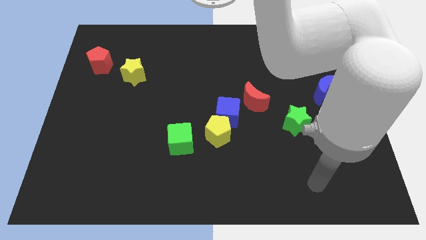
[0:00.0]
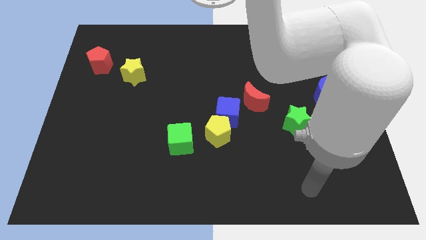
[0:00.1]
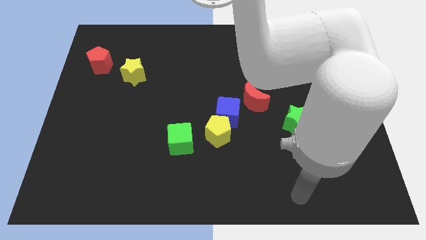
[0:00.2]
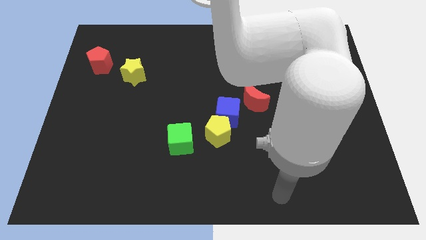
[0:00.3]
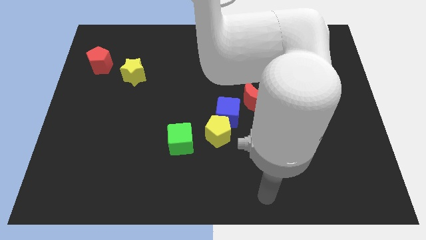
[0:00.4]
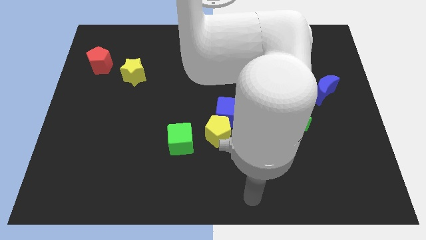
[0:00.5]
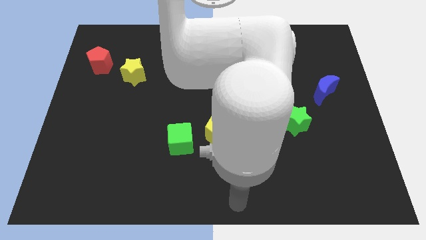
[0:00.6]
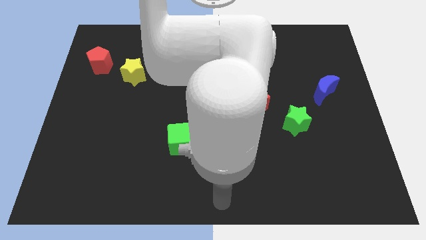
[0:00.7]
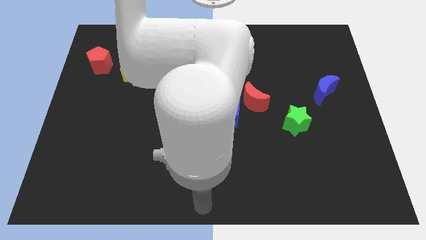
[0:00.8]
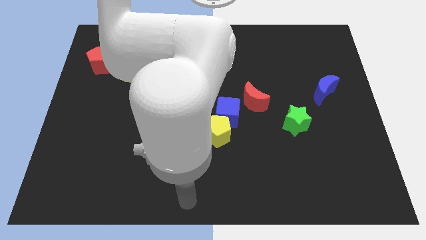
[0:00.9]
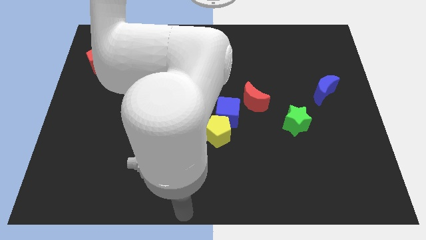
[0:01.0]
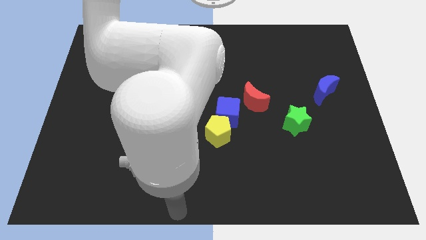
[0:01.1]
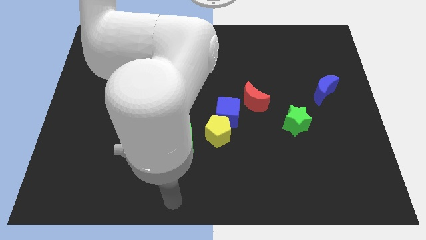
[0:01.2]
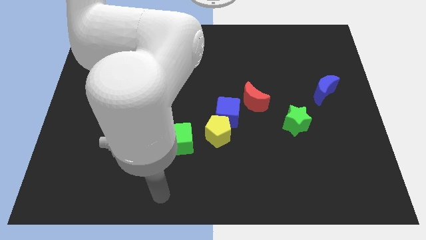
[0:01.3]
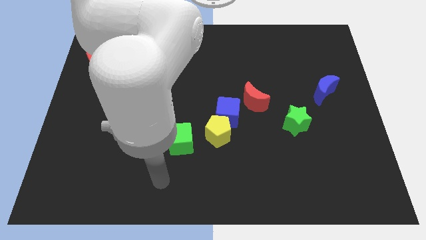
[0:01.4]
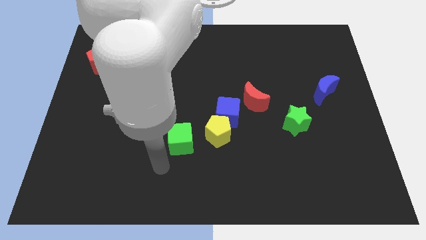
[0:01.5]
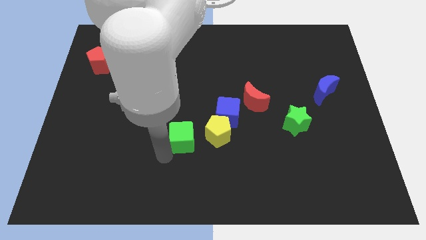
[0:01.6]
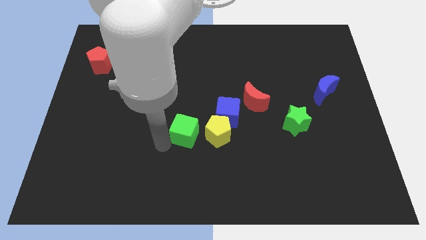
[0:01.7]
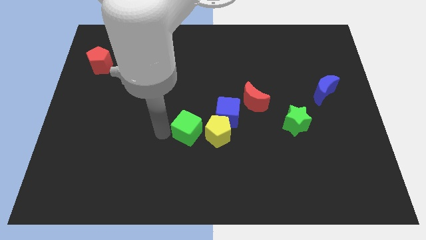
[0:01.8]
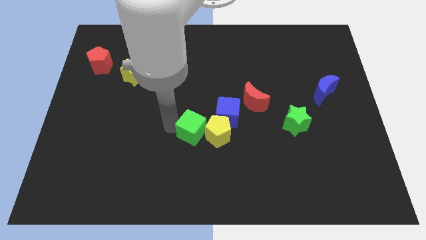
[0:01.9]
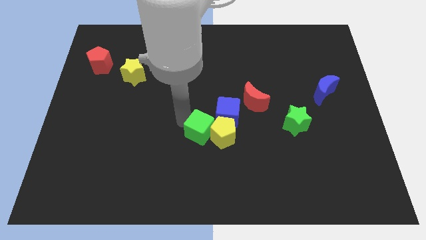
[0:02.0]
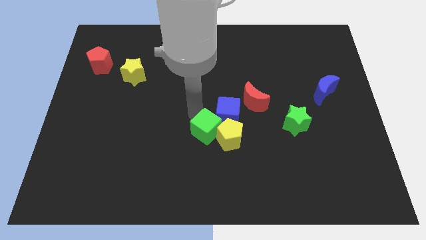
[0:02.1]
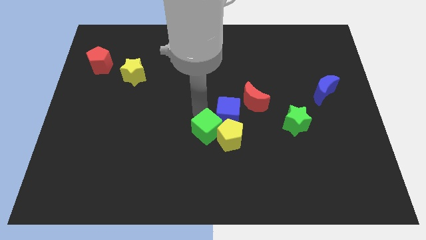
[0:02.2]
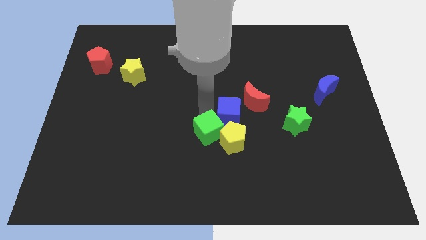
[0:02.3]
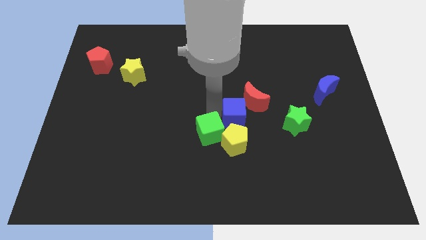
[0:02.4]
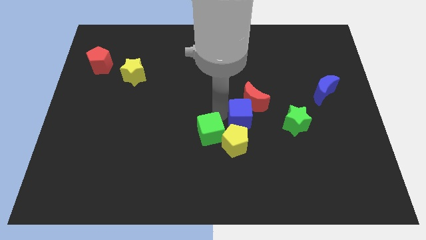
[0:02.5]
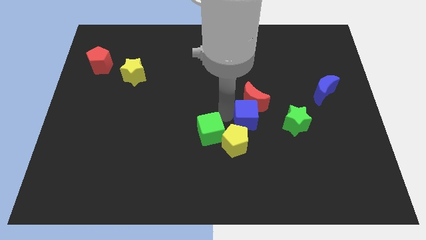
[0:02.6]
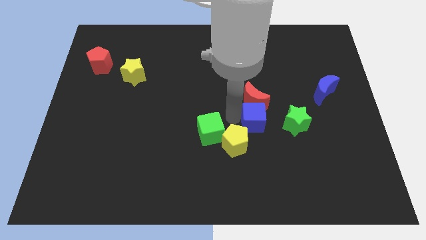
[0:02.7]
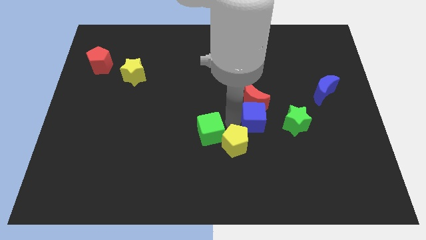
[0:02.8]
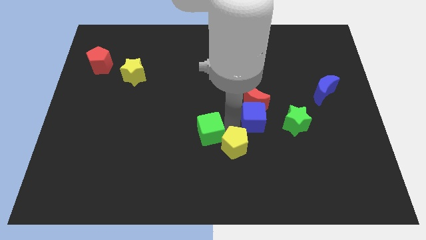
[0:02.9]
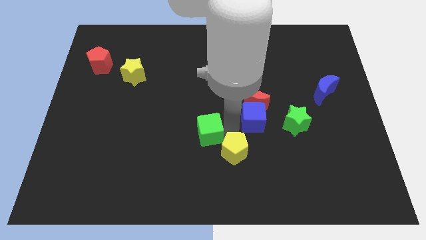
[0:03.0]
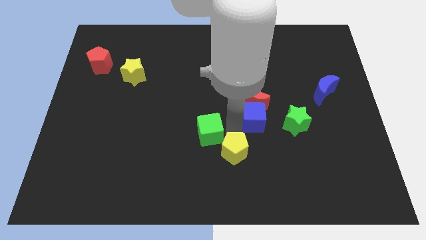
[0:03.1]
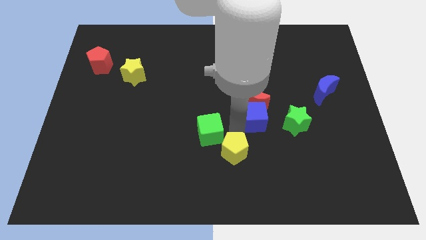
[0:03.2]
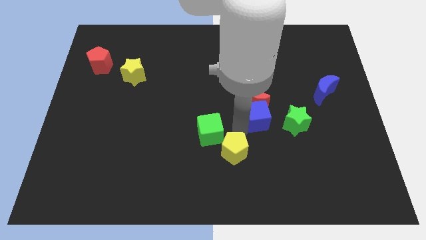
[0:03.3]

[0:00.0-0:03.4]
slide the blue cube a little right

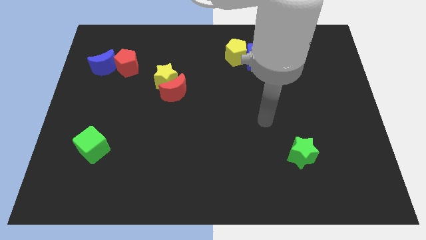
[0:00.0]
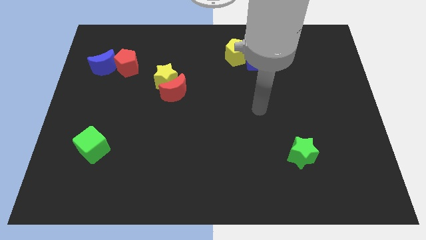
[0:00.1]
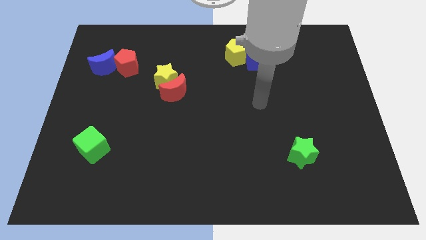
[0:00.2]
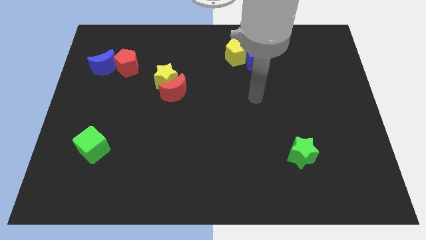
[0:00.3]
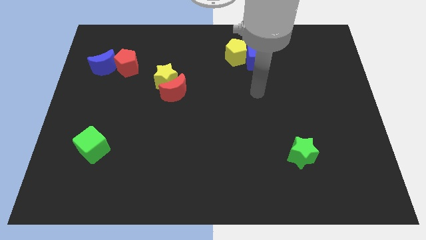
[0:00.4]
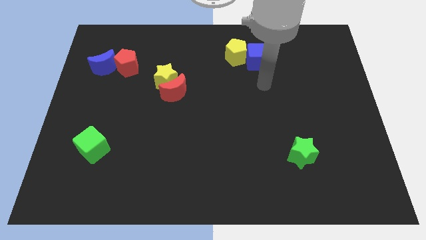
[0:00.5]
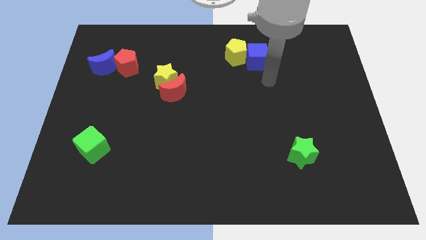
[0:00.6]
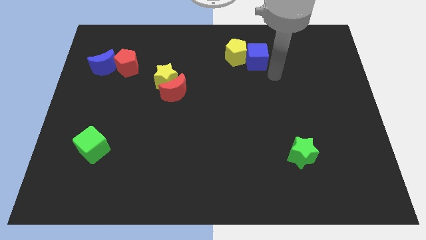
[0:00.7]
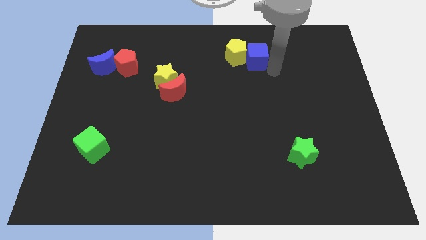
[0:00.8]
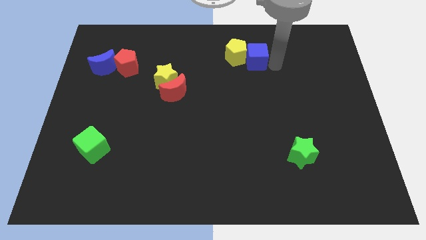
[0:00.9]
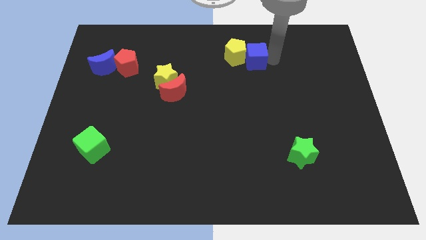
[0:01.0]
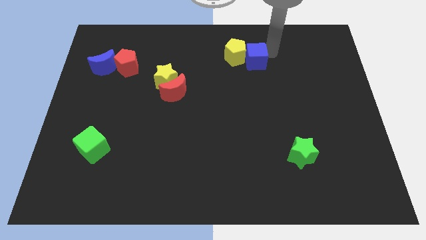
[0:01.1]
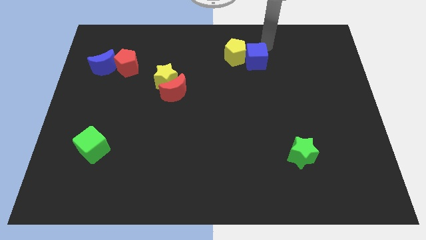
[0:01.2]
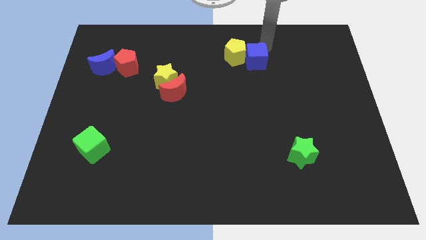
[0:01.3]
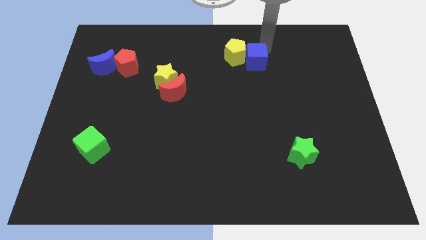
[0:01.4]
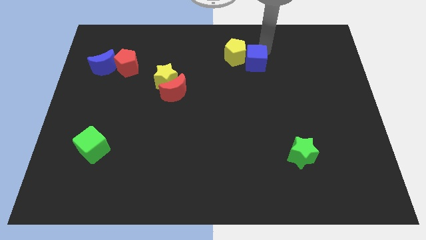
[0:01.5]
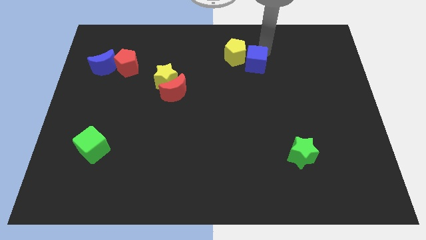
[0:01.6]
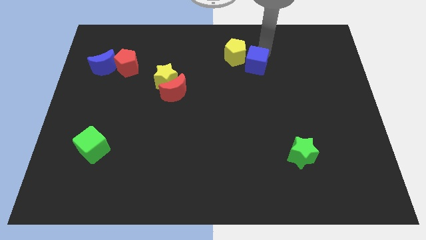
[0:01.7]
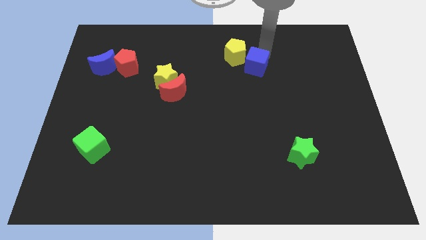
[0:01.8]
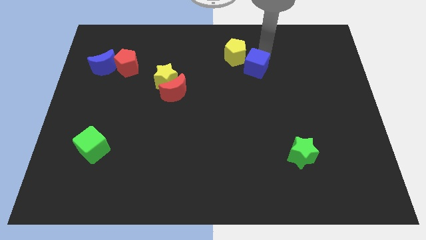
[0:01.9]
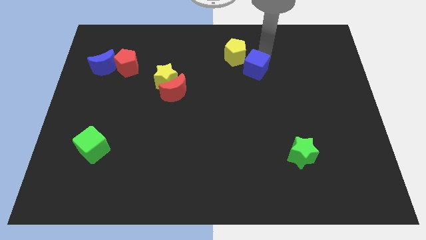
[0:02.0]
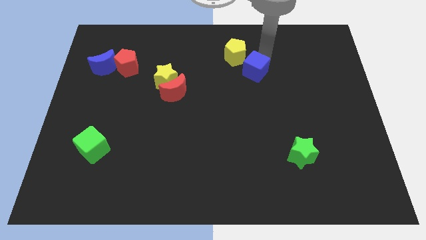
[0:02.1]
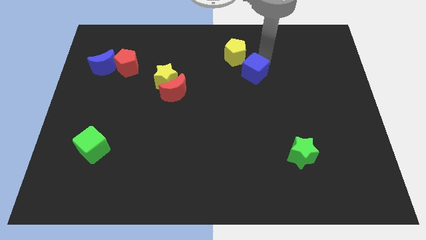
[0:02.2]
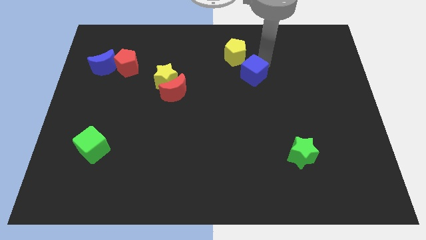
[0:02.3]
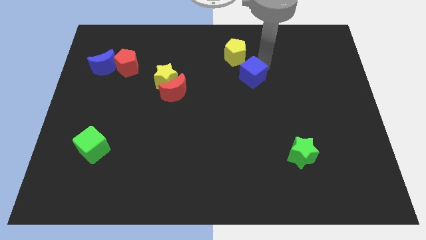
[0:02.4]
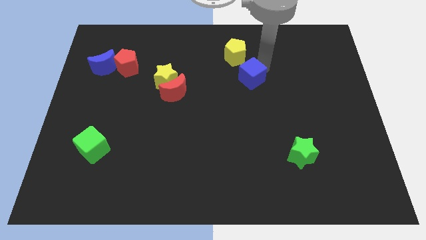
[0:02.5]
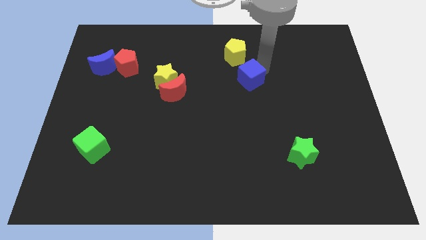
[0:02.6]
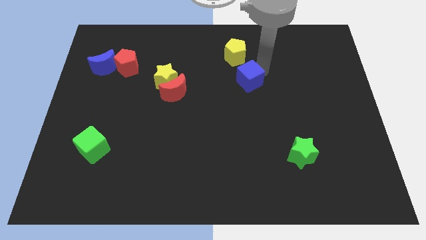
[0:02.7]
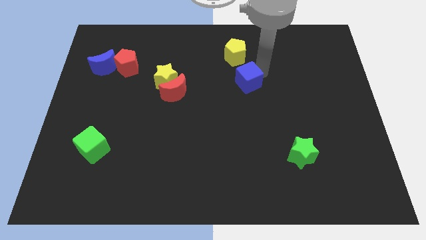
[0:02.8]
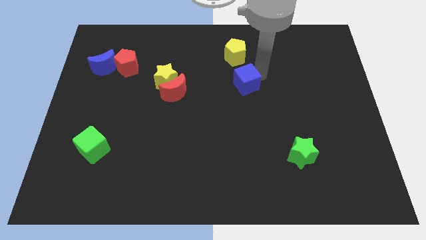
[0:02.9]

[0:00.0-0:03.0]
slide the blue cube somewhat downwards and then to the left

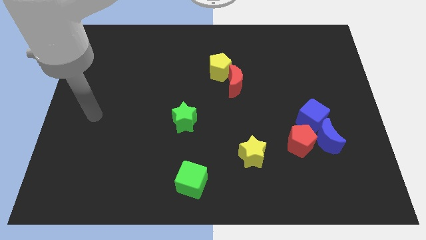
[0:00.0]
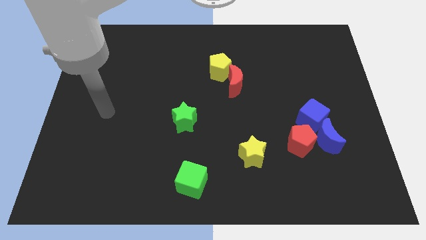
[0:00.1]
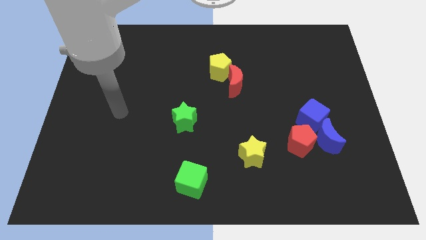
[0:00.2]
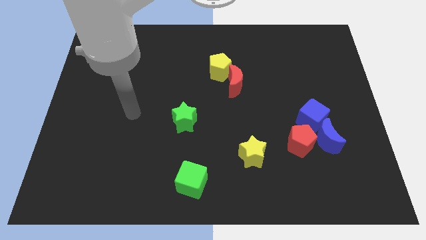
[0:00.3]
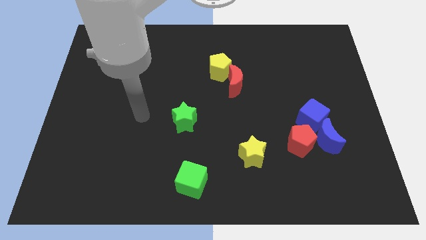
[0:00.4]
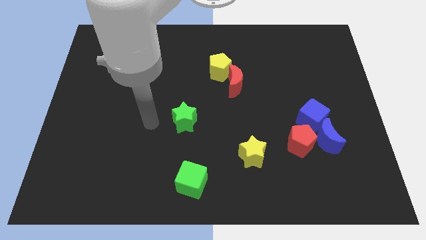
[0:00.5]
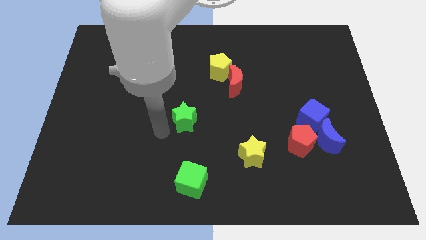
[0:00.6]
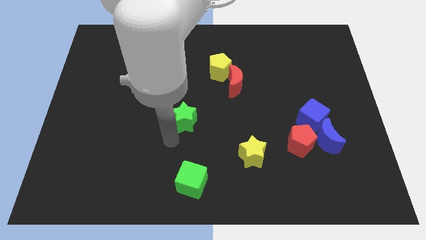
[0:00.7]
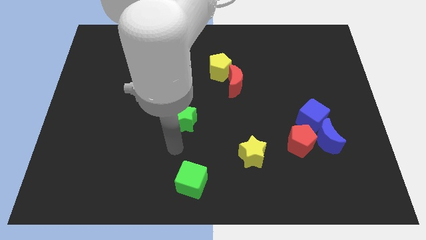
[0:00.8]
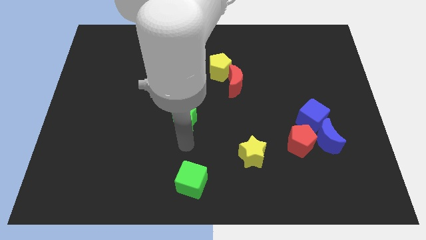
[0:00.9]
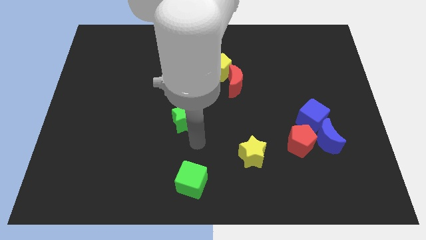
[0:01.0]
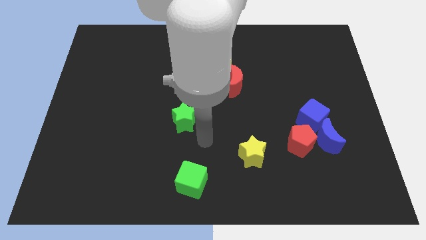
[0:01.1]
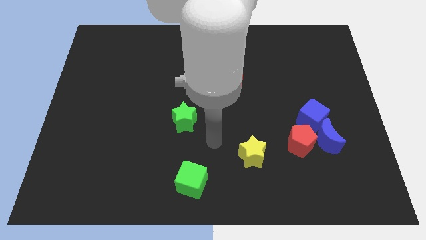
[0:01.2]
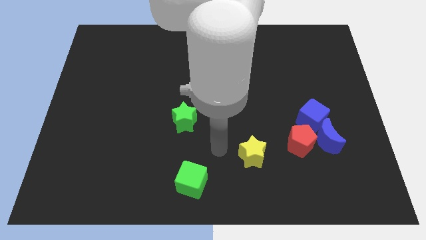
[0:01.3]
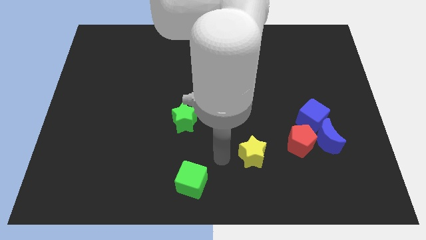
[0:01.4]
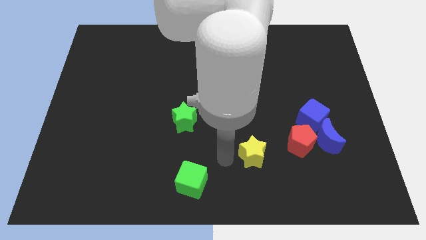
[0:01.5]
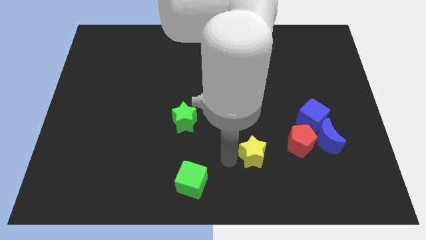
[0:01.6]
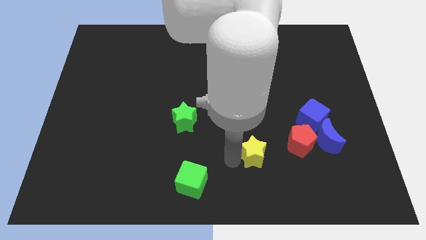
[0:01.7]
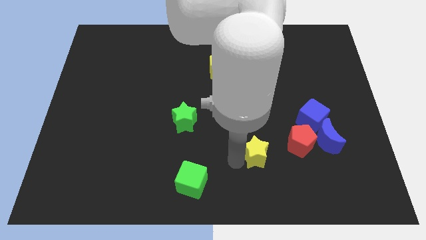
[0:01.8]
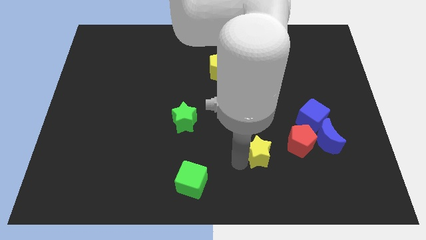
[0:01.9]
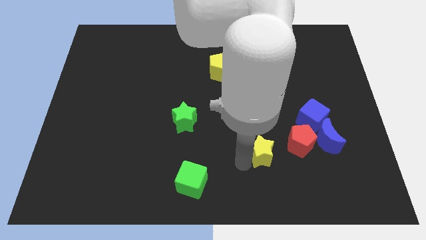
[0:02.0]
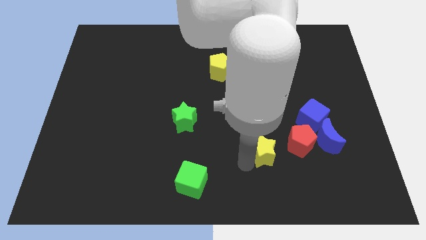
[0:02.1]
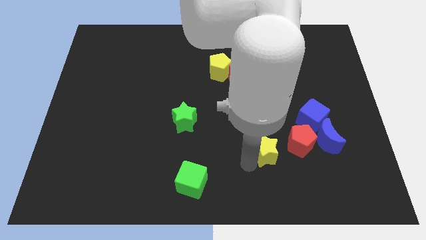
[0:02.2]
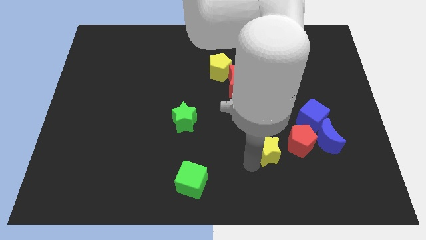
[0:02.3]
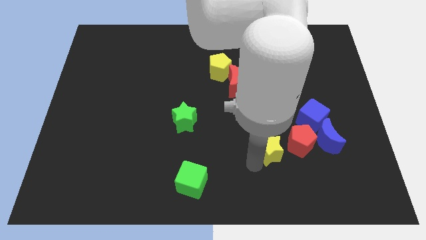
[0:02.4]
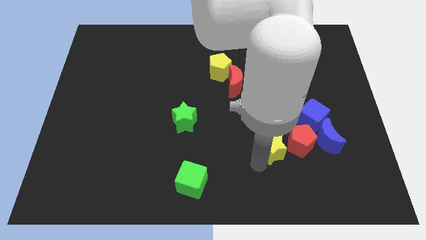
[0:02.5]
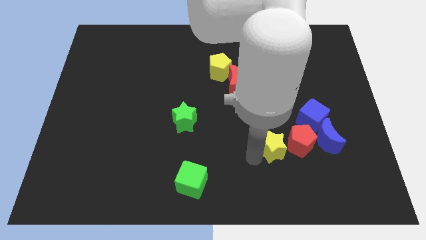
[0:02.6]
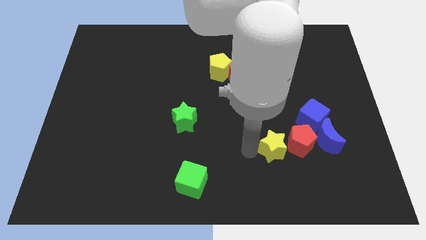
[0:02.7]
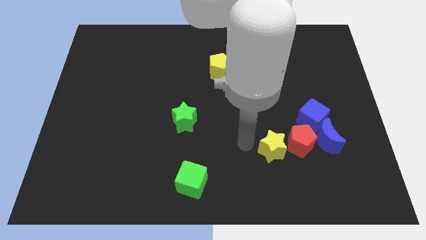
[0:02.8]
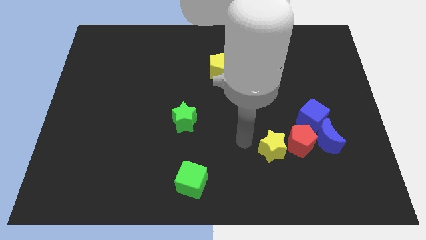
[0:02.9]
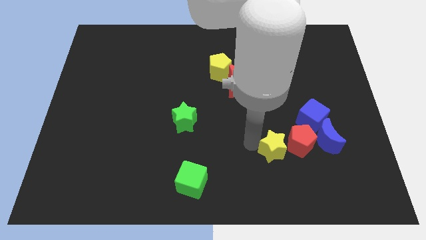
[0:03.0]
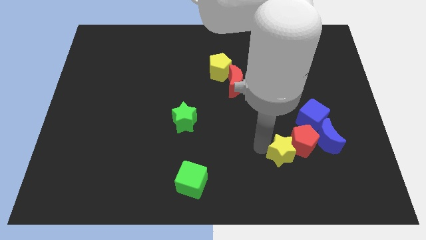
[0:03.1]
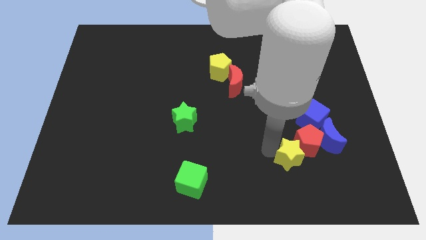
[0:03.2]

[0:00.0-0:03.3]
push the yellow star right a little
